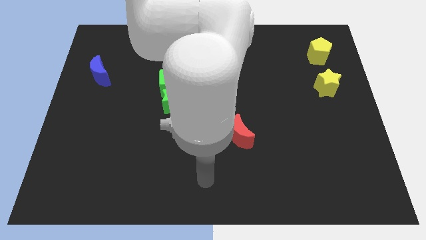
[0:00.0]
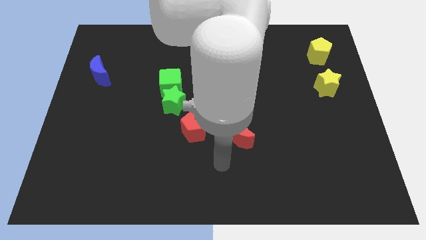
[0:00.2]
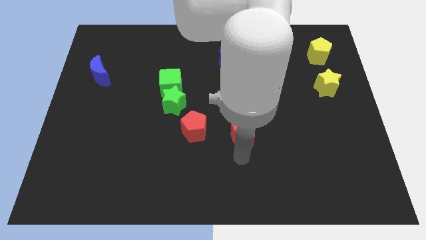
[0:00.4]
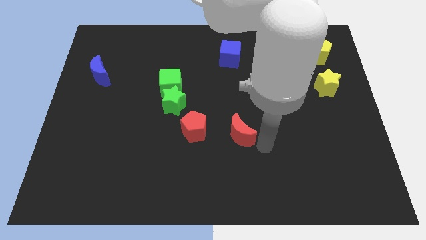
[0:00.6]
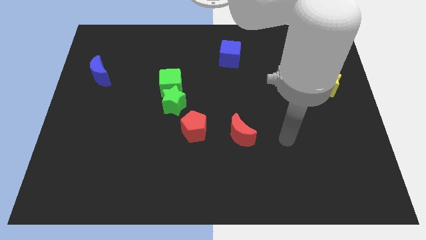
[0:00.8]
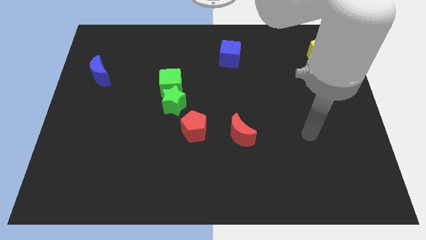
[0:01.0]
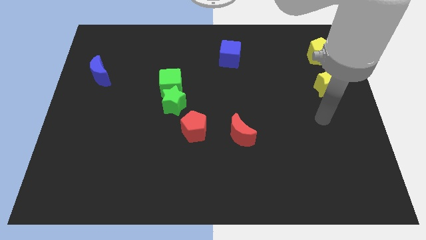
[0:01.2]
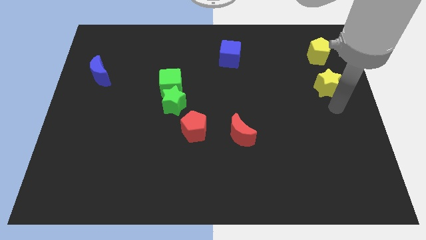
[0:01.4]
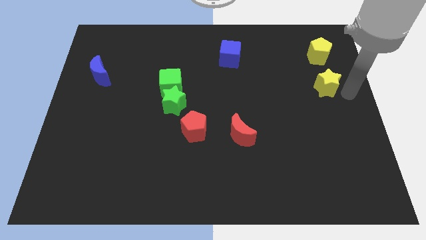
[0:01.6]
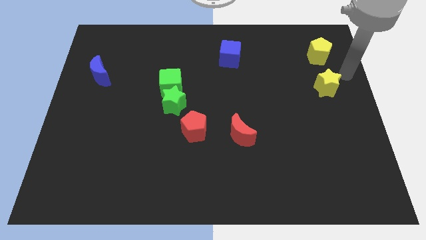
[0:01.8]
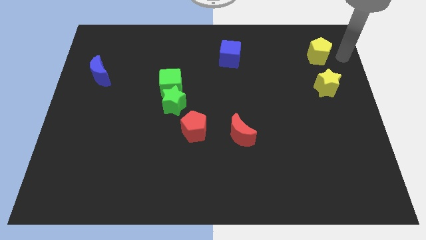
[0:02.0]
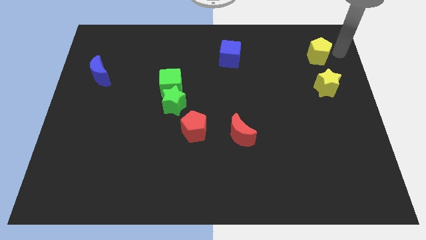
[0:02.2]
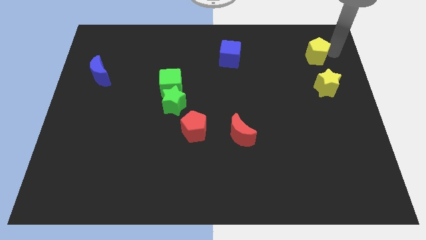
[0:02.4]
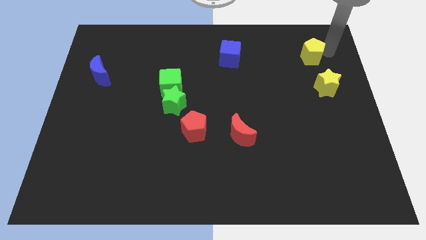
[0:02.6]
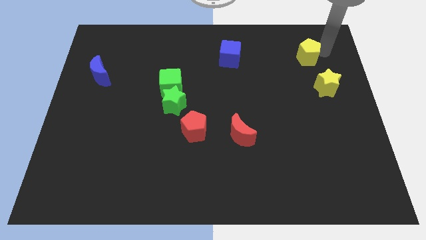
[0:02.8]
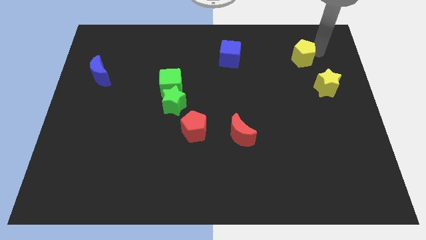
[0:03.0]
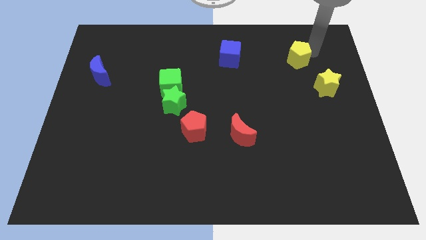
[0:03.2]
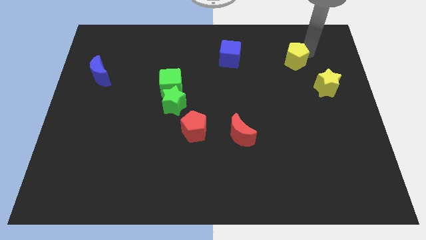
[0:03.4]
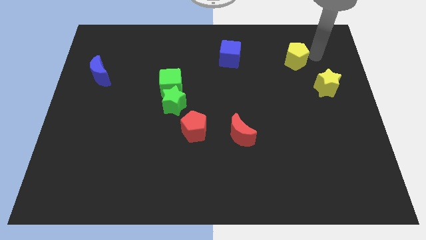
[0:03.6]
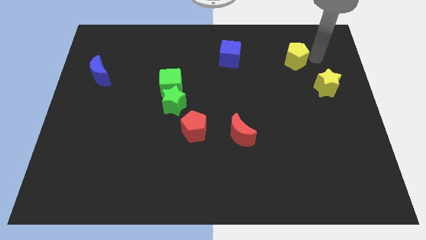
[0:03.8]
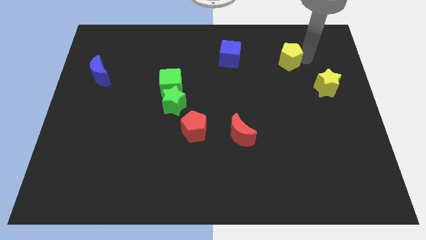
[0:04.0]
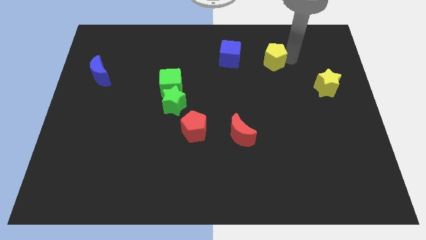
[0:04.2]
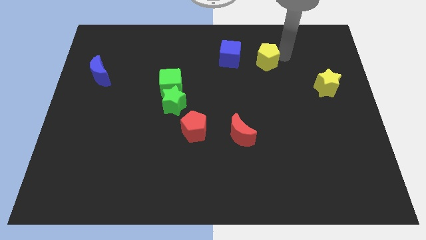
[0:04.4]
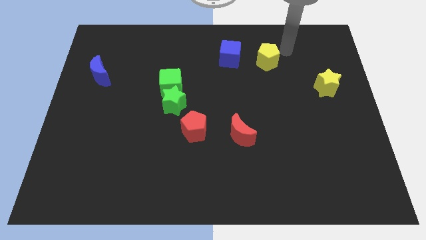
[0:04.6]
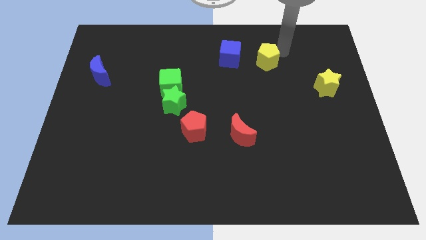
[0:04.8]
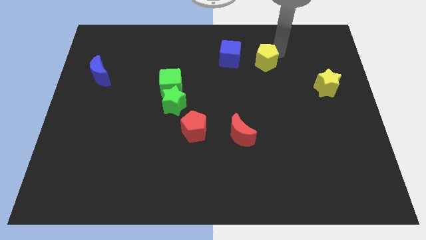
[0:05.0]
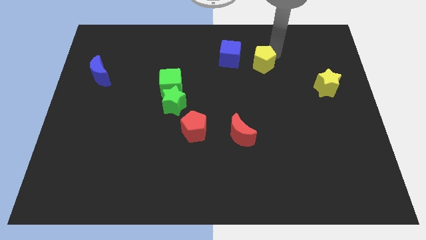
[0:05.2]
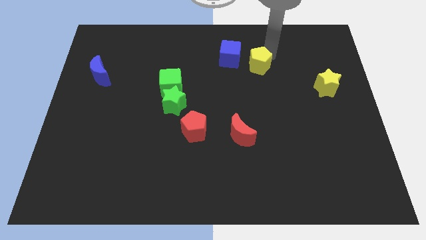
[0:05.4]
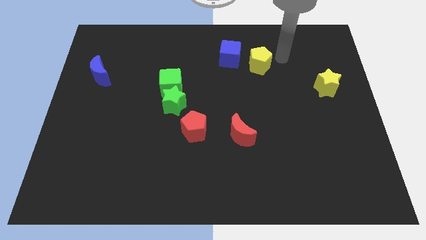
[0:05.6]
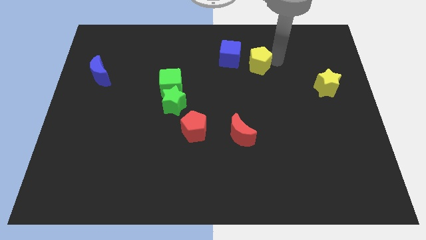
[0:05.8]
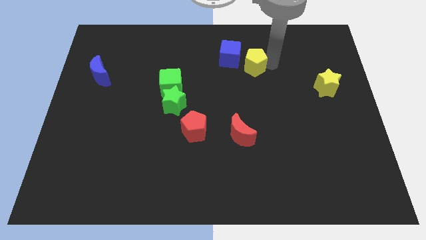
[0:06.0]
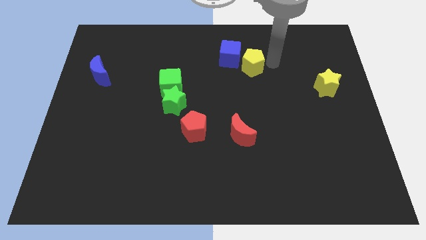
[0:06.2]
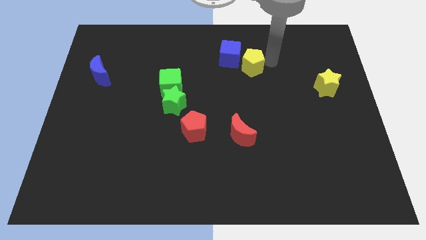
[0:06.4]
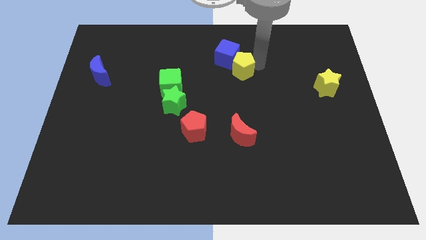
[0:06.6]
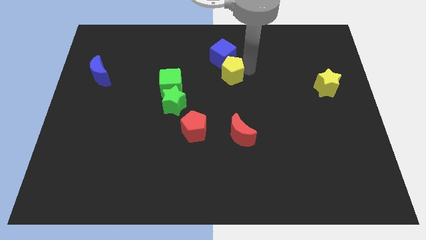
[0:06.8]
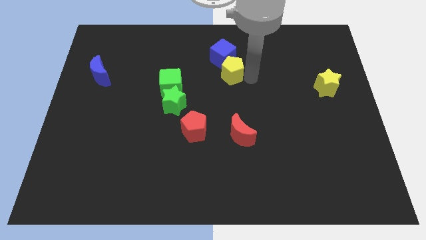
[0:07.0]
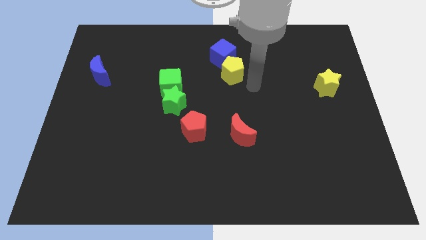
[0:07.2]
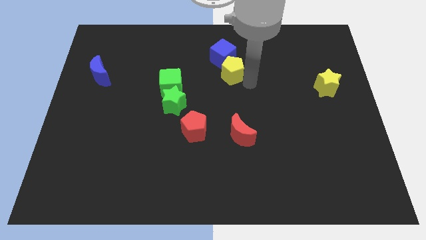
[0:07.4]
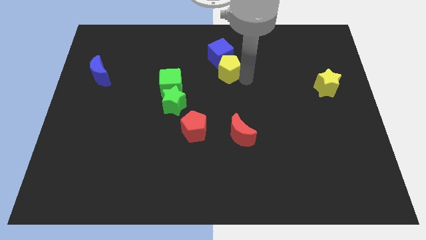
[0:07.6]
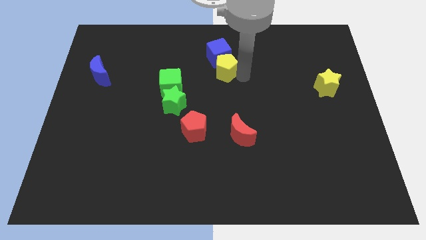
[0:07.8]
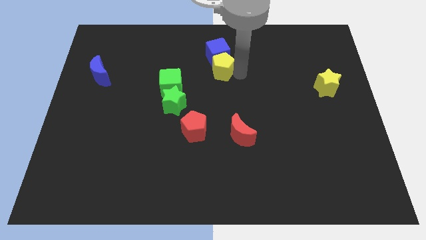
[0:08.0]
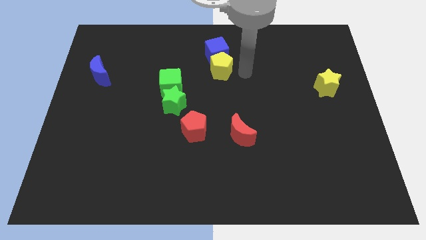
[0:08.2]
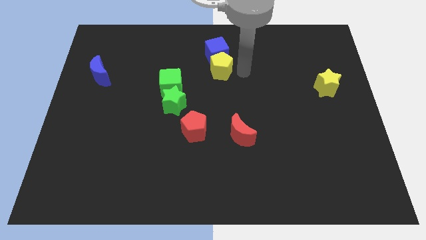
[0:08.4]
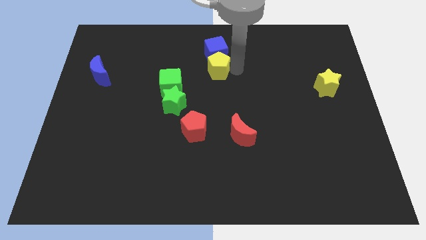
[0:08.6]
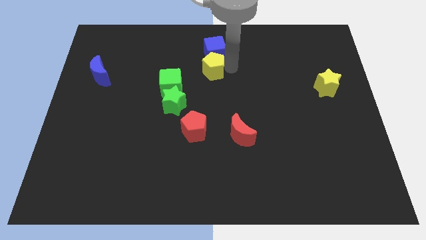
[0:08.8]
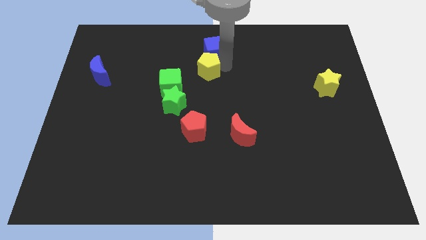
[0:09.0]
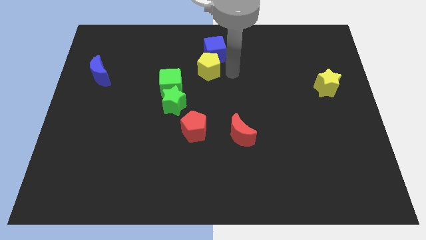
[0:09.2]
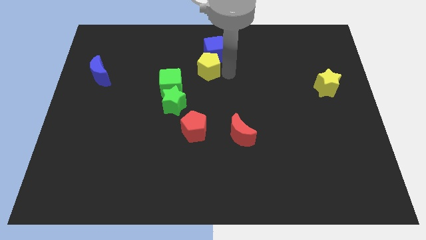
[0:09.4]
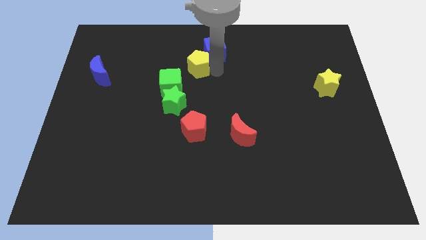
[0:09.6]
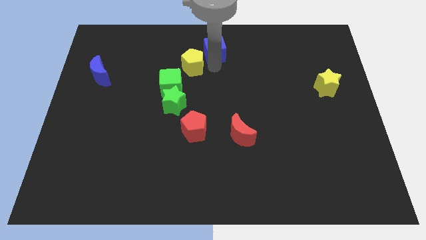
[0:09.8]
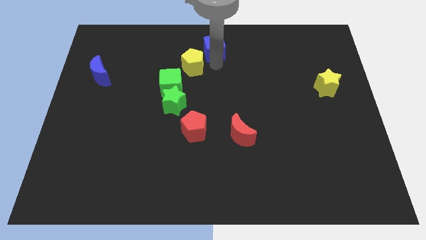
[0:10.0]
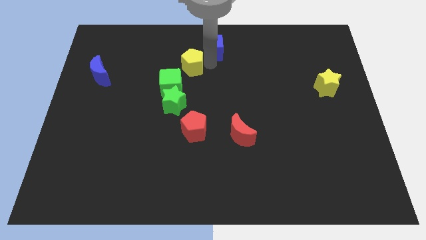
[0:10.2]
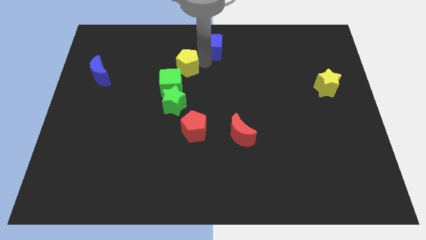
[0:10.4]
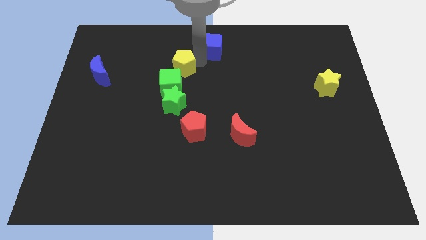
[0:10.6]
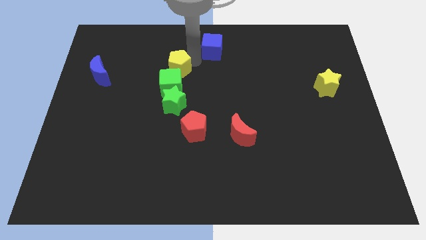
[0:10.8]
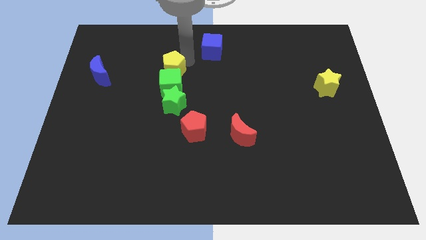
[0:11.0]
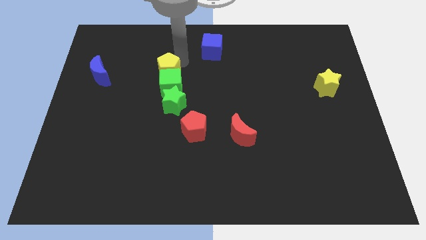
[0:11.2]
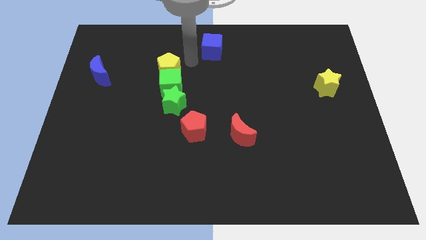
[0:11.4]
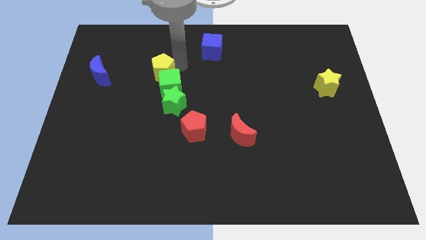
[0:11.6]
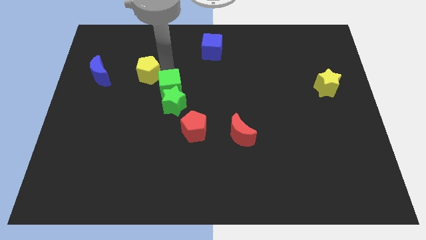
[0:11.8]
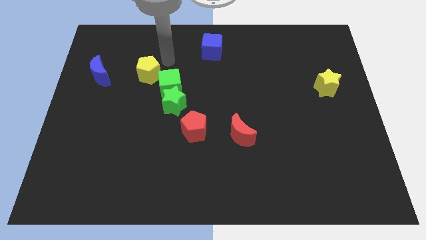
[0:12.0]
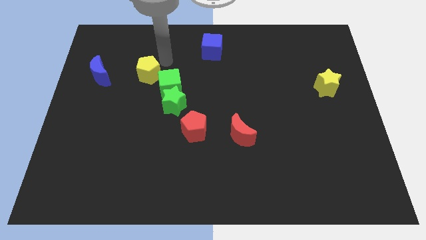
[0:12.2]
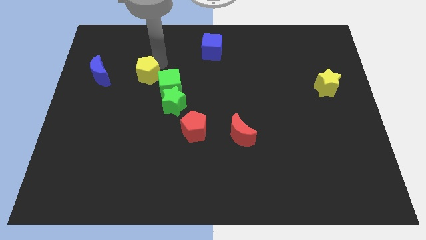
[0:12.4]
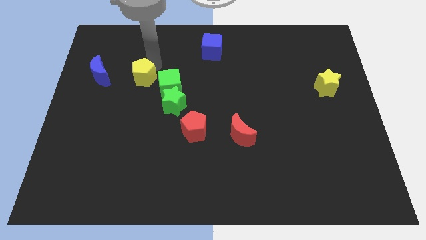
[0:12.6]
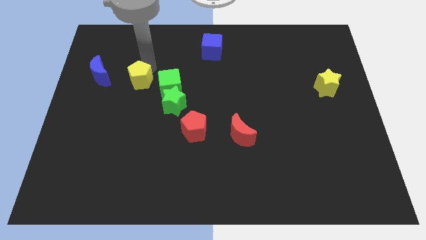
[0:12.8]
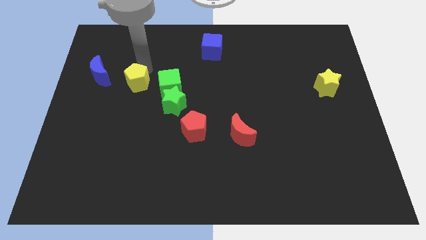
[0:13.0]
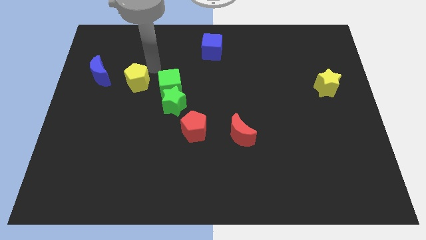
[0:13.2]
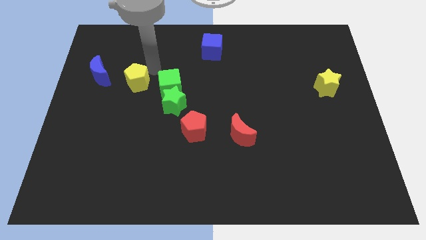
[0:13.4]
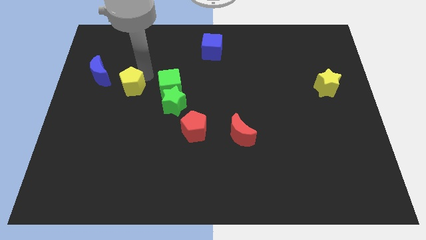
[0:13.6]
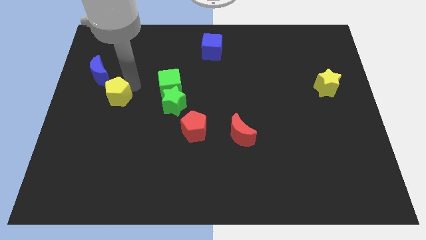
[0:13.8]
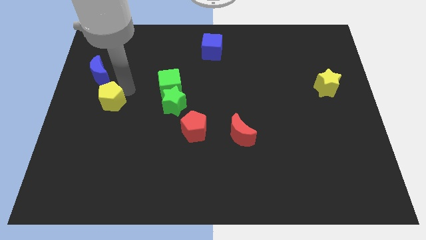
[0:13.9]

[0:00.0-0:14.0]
slide the yellow pentagon to the bottom side of the blue moon
